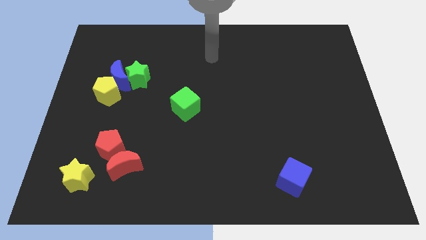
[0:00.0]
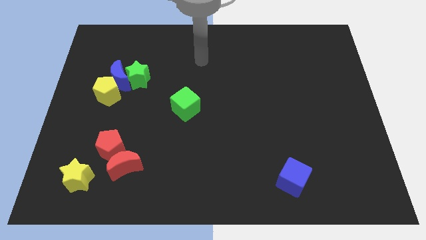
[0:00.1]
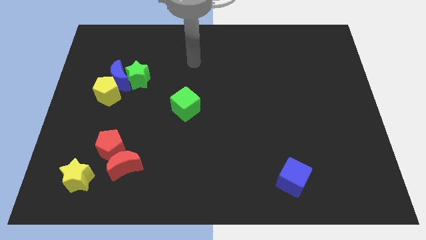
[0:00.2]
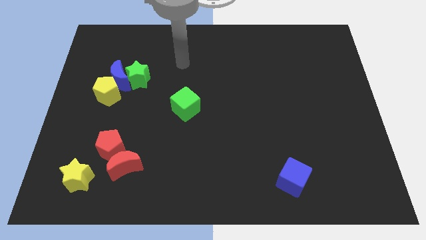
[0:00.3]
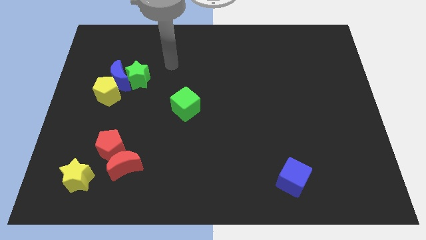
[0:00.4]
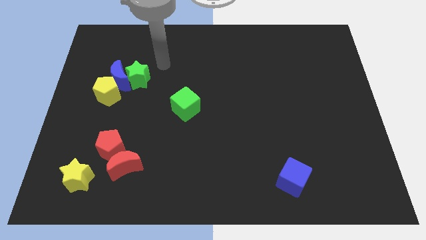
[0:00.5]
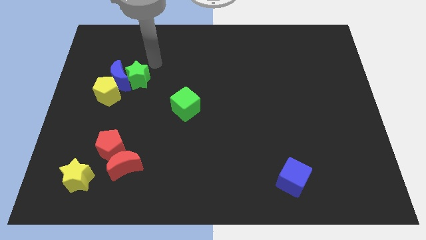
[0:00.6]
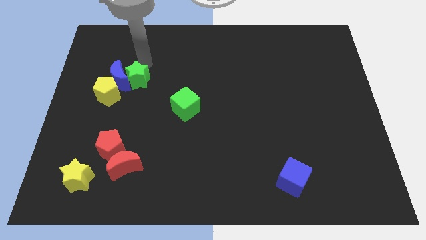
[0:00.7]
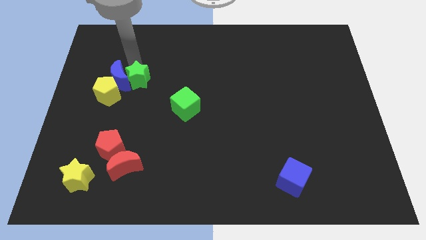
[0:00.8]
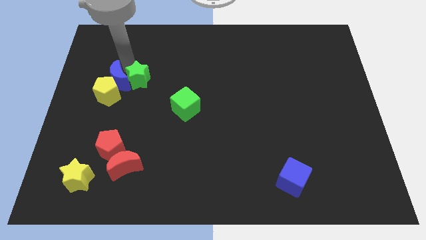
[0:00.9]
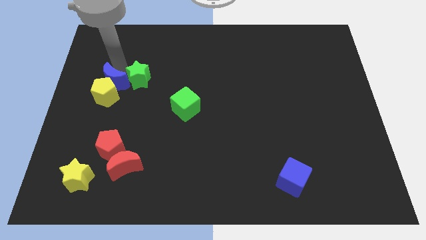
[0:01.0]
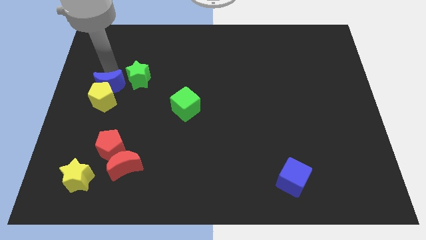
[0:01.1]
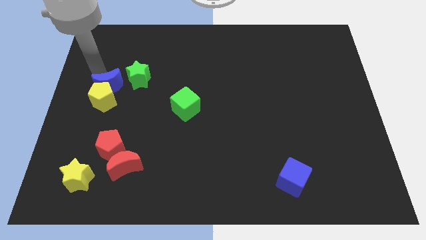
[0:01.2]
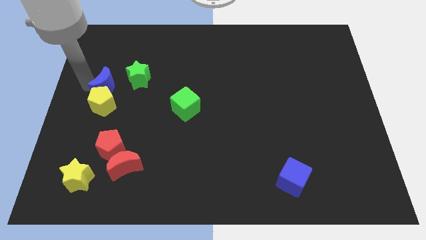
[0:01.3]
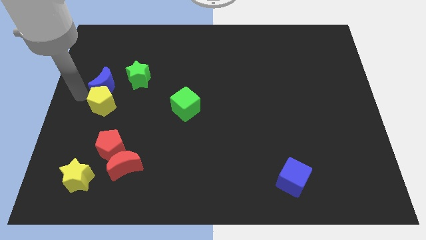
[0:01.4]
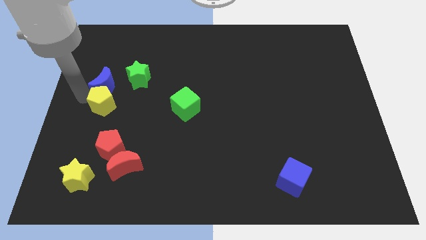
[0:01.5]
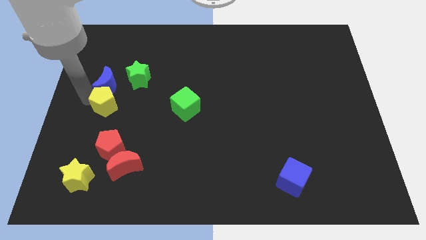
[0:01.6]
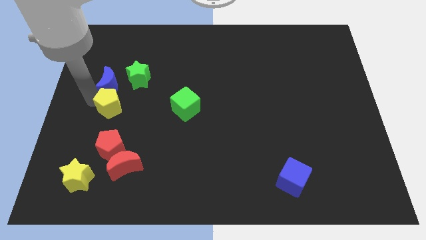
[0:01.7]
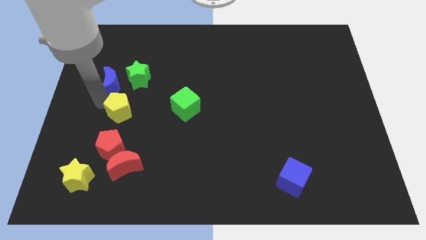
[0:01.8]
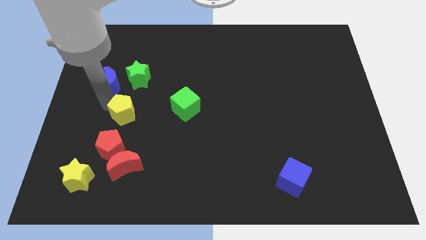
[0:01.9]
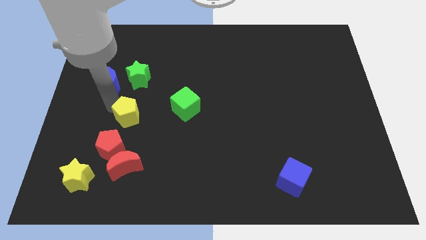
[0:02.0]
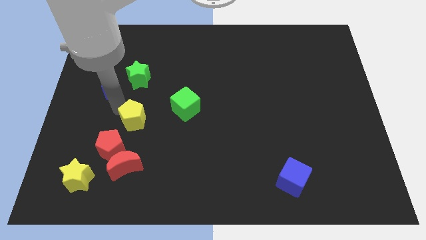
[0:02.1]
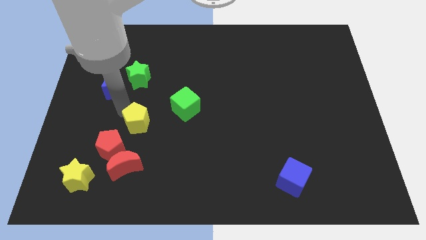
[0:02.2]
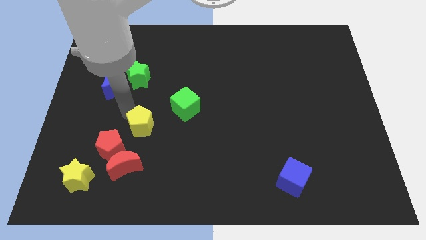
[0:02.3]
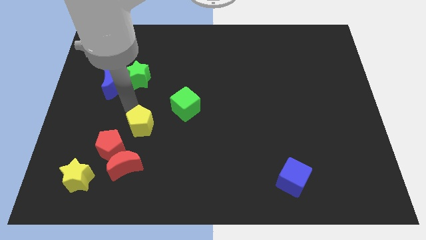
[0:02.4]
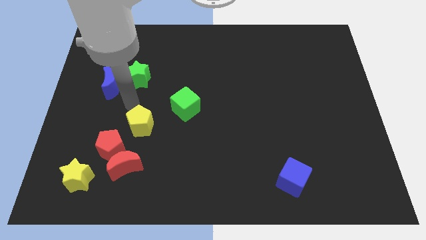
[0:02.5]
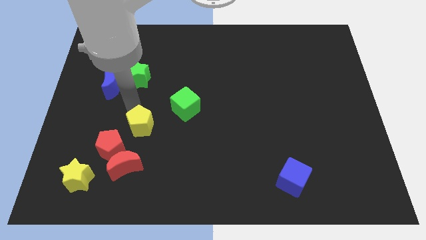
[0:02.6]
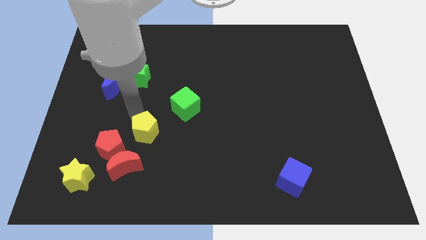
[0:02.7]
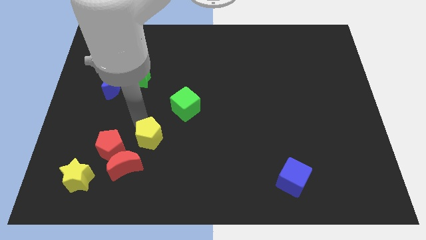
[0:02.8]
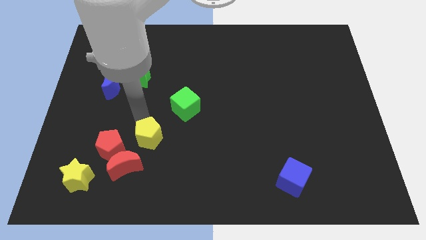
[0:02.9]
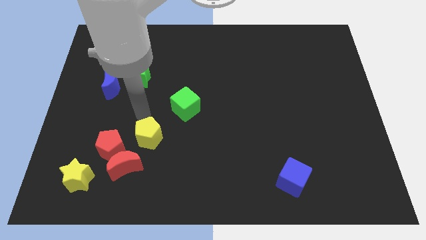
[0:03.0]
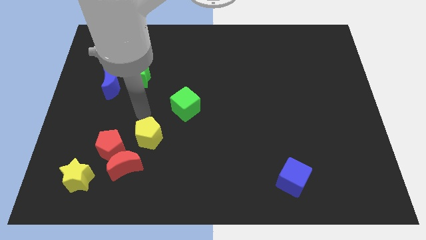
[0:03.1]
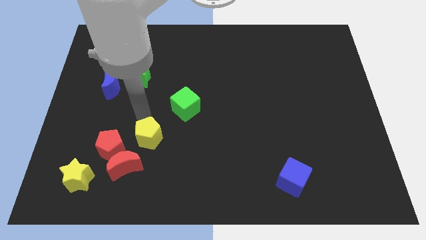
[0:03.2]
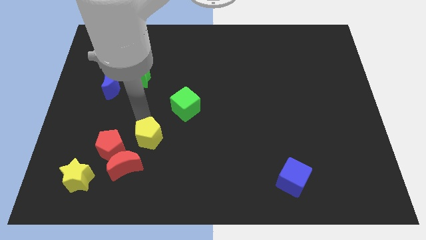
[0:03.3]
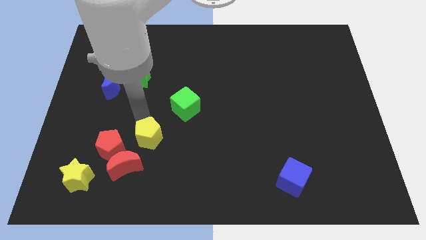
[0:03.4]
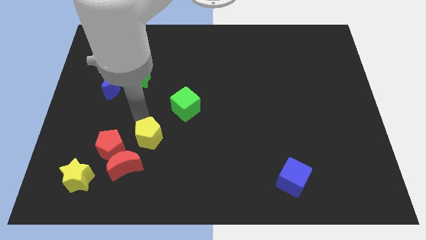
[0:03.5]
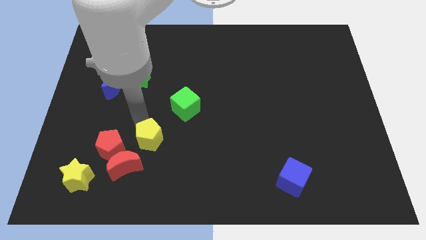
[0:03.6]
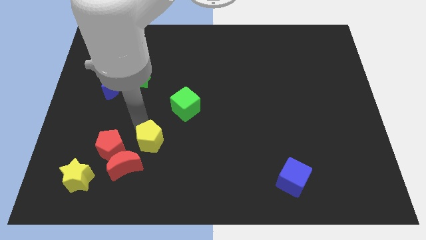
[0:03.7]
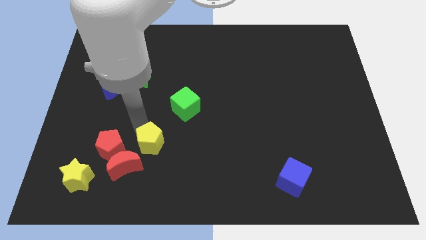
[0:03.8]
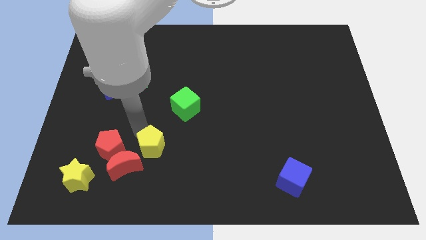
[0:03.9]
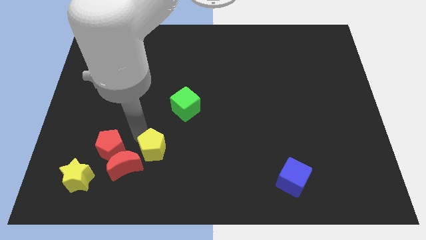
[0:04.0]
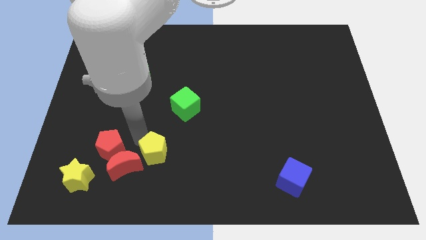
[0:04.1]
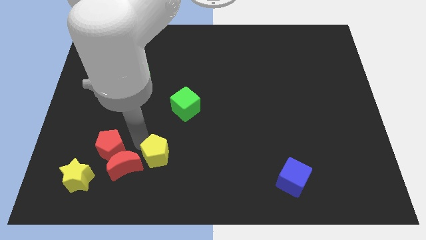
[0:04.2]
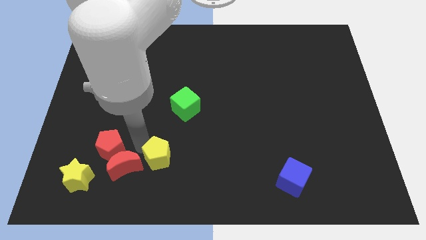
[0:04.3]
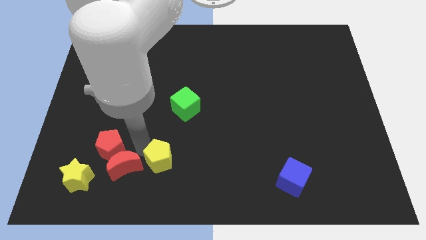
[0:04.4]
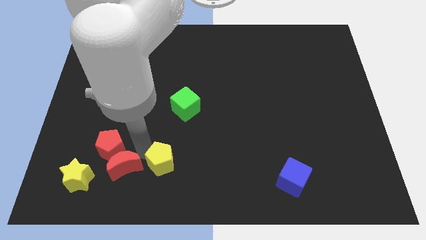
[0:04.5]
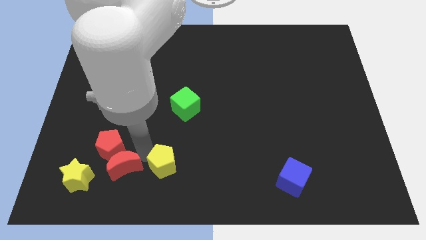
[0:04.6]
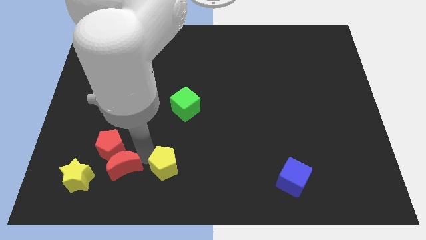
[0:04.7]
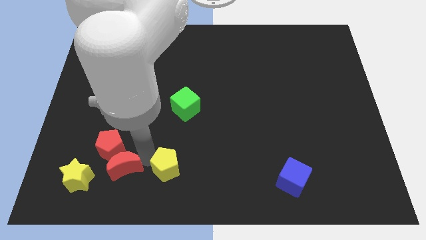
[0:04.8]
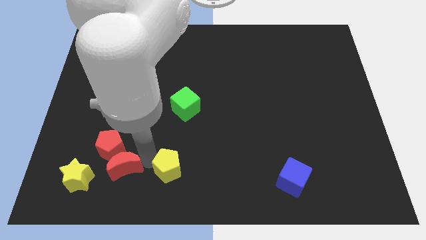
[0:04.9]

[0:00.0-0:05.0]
slide the yellow pentagon to the bottom

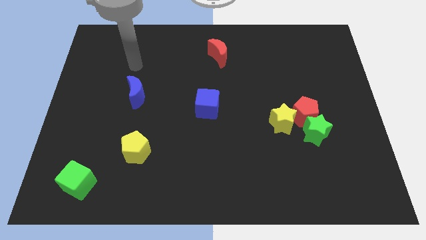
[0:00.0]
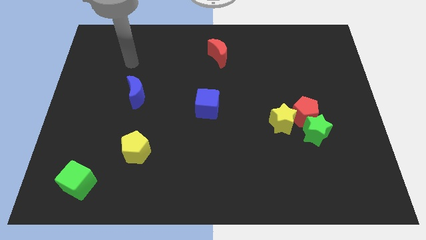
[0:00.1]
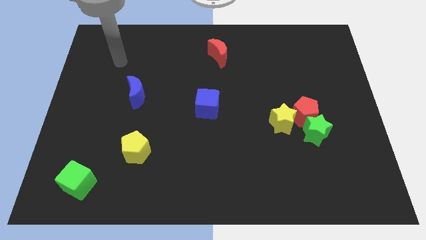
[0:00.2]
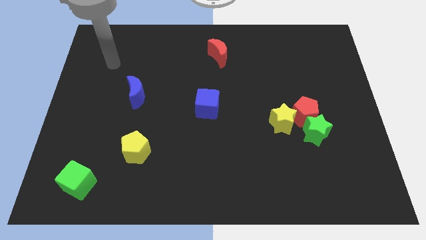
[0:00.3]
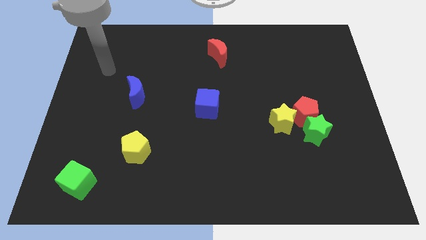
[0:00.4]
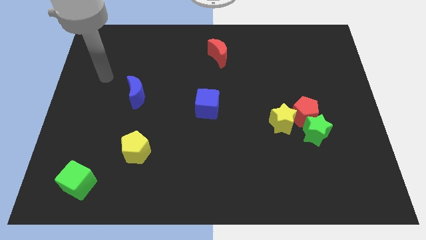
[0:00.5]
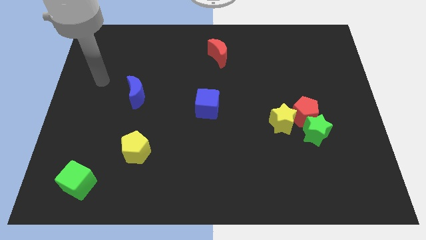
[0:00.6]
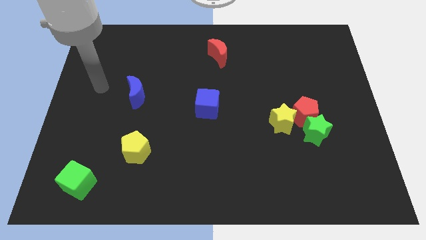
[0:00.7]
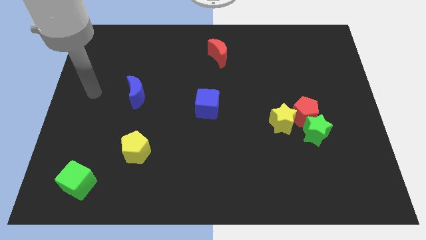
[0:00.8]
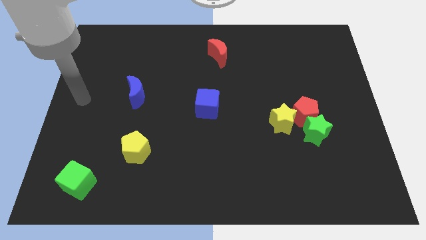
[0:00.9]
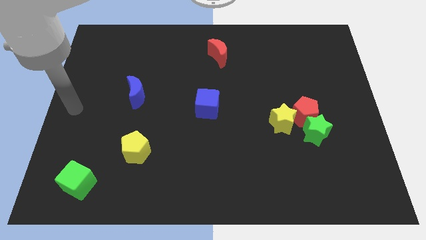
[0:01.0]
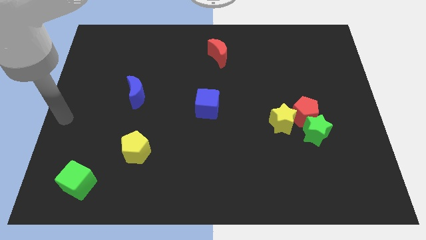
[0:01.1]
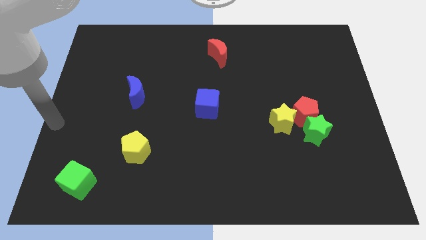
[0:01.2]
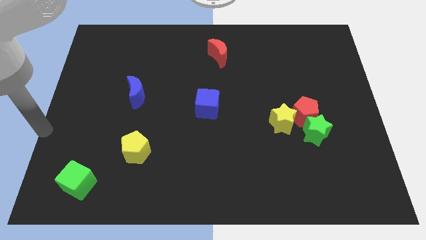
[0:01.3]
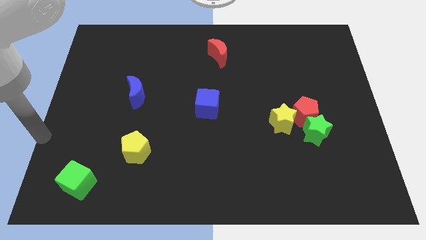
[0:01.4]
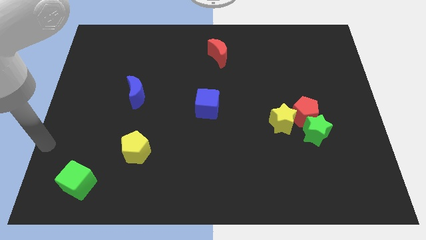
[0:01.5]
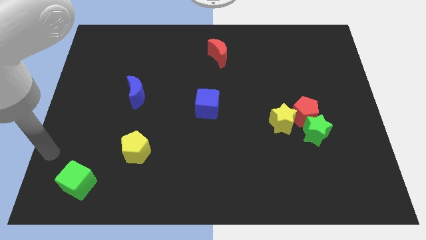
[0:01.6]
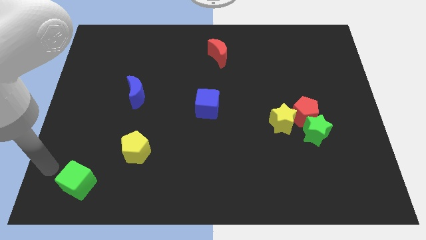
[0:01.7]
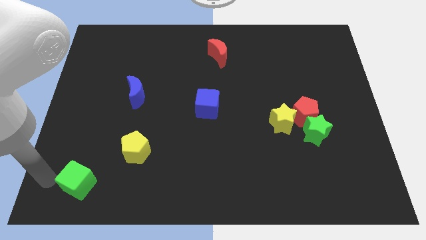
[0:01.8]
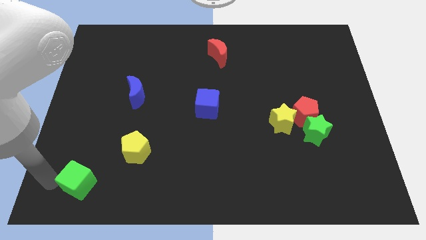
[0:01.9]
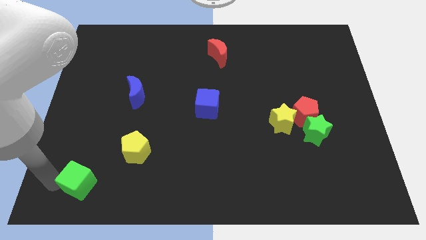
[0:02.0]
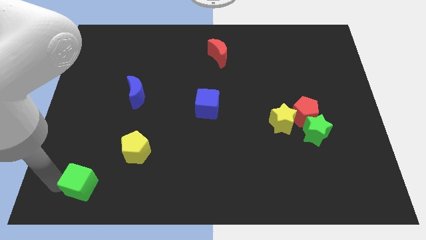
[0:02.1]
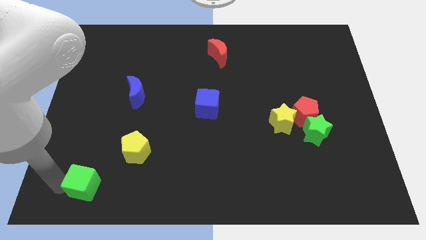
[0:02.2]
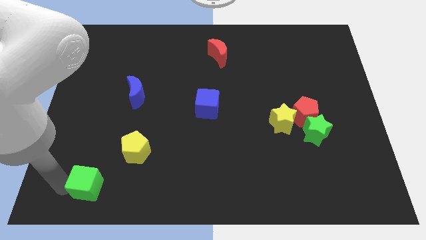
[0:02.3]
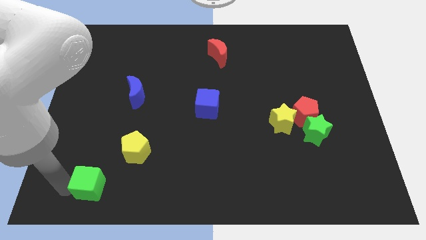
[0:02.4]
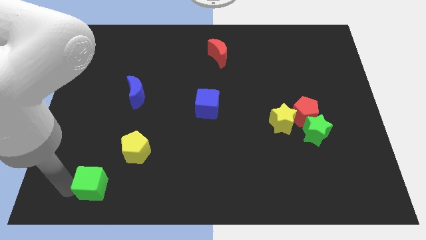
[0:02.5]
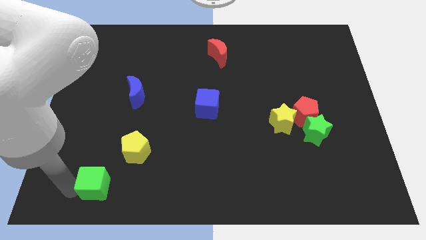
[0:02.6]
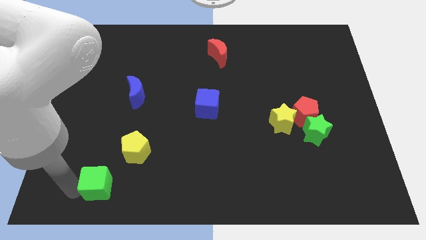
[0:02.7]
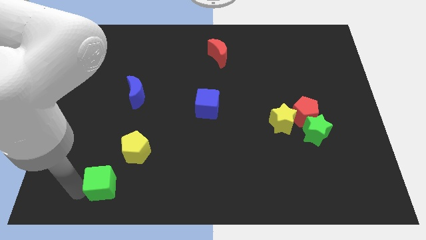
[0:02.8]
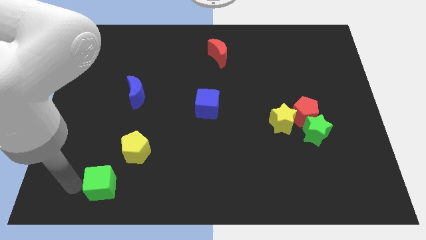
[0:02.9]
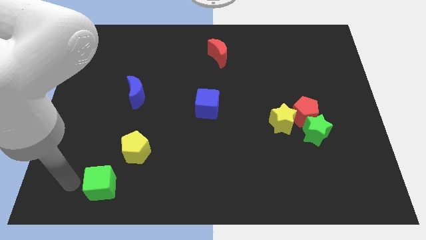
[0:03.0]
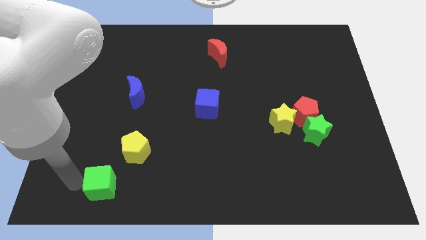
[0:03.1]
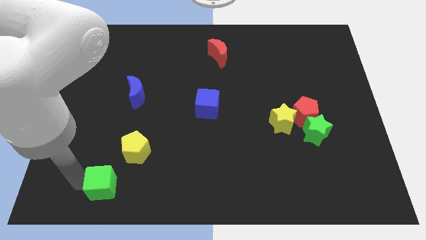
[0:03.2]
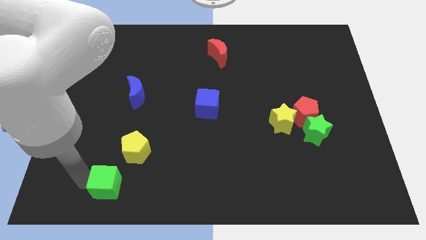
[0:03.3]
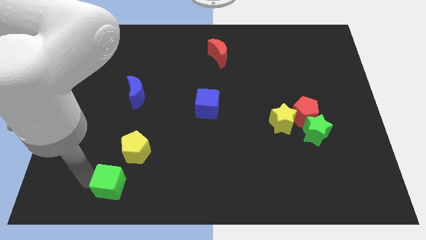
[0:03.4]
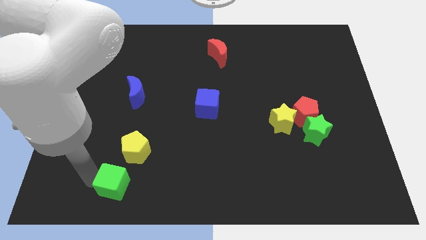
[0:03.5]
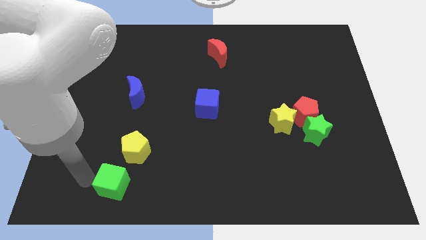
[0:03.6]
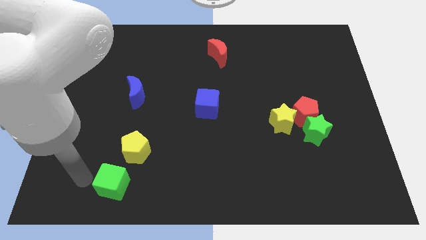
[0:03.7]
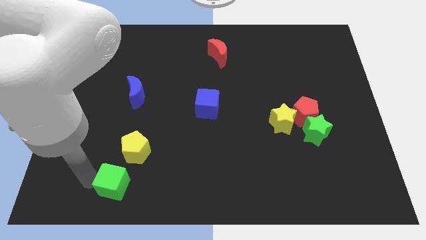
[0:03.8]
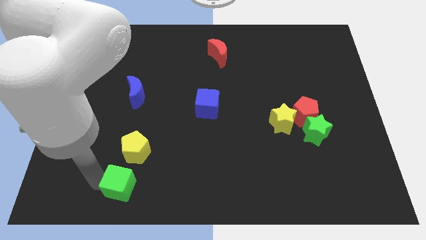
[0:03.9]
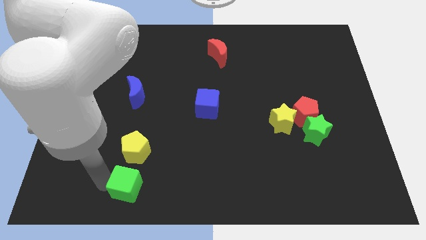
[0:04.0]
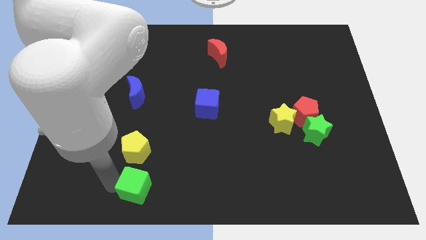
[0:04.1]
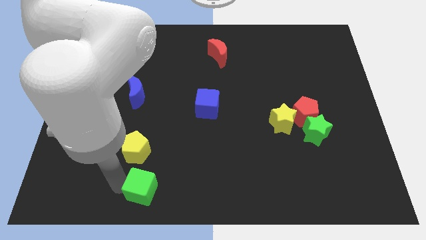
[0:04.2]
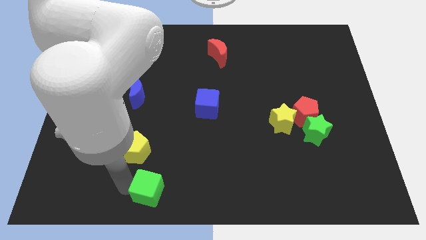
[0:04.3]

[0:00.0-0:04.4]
slide the green cube to the bottom side
